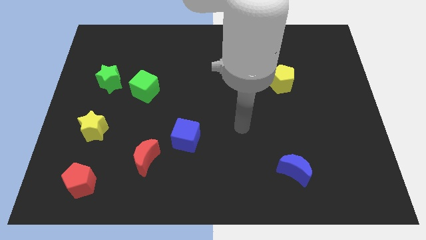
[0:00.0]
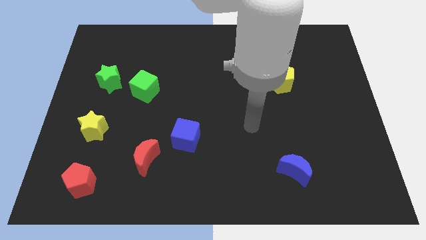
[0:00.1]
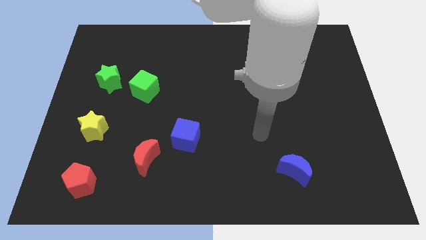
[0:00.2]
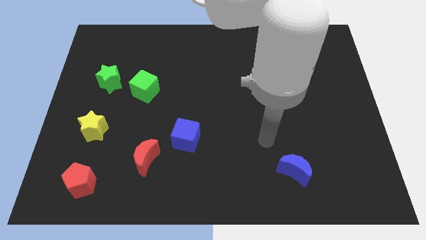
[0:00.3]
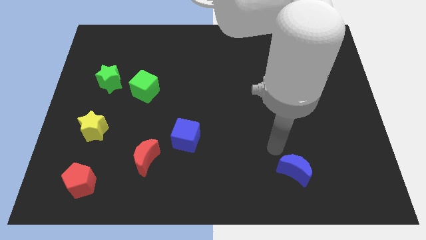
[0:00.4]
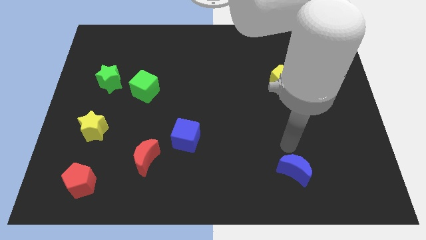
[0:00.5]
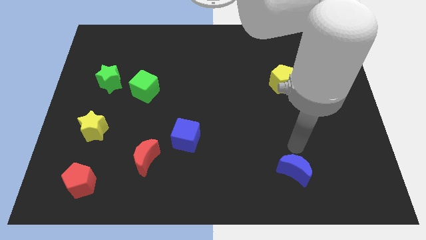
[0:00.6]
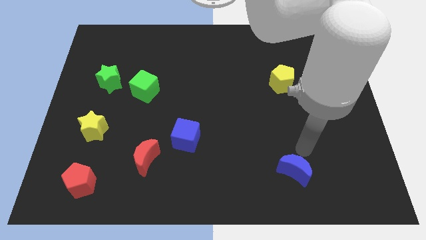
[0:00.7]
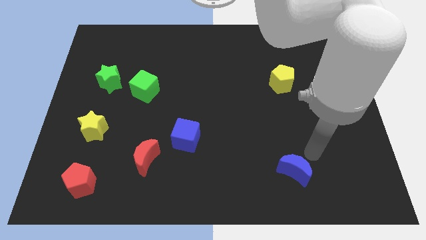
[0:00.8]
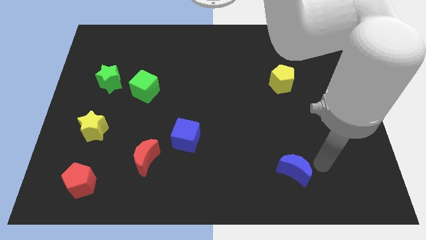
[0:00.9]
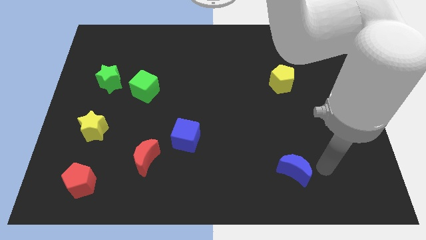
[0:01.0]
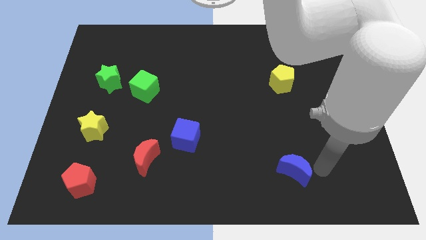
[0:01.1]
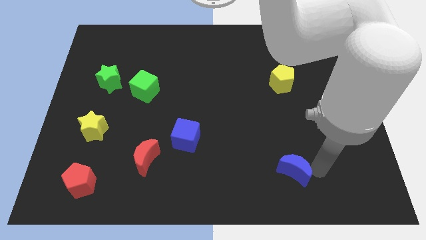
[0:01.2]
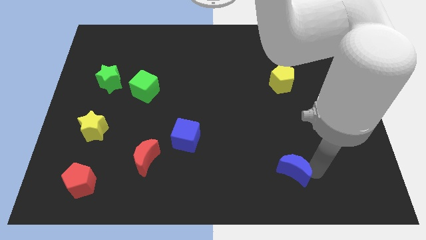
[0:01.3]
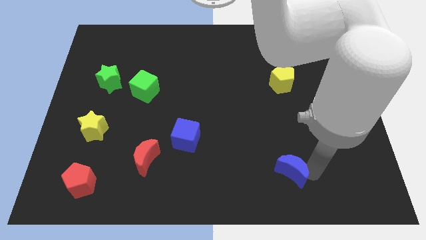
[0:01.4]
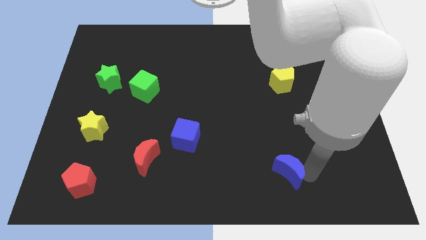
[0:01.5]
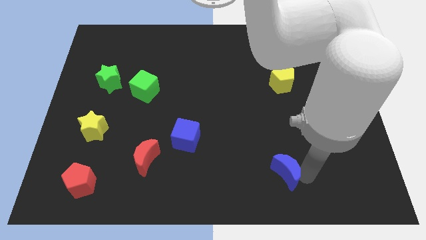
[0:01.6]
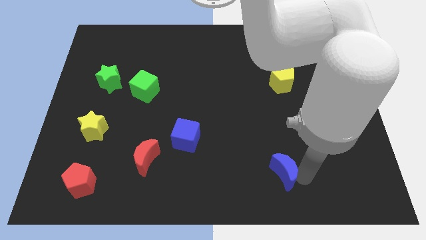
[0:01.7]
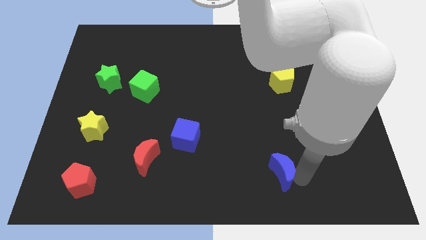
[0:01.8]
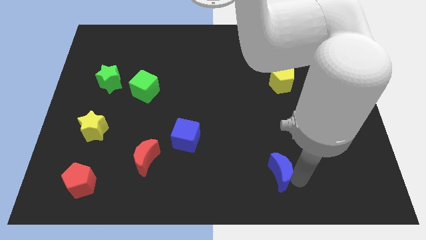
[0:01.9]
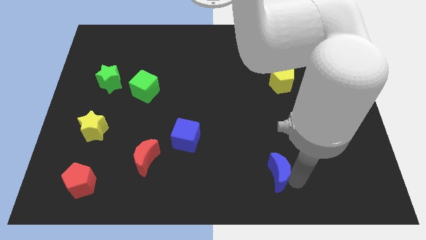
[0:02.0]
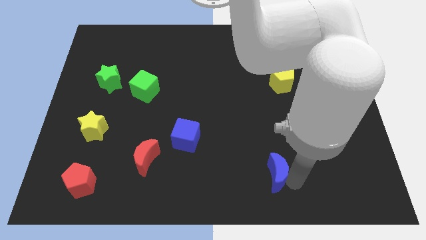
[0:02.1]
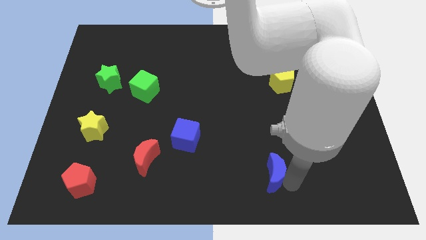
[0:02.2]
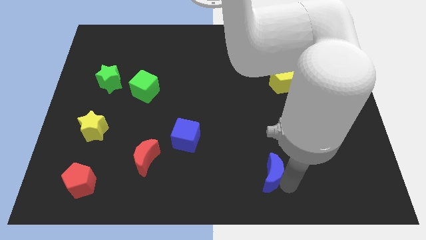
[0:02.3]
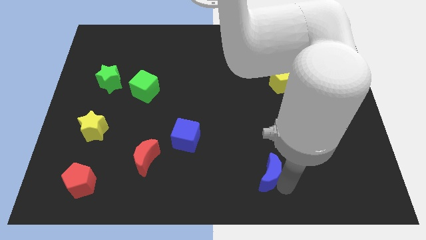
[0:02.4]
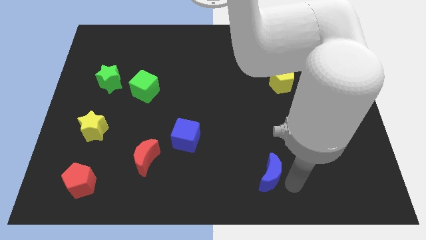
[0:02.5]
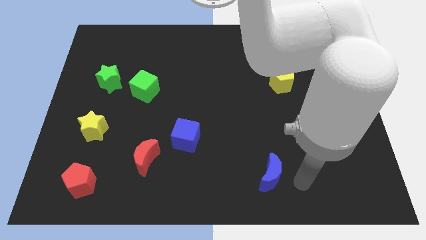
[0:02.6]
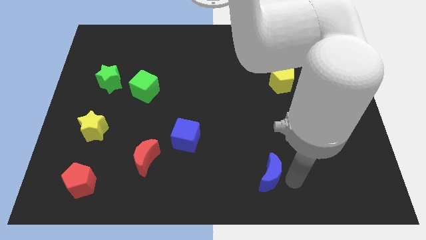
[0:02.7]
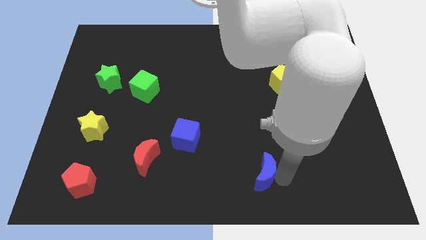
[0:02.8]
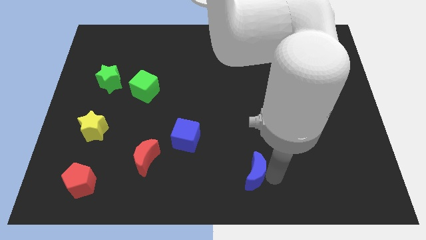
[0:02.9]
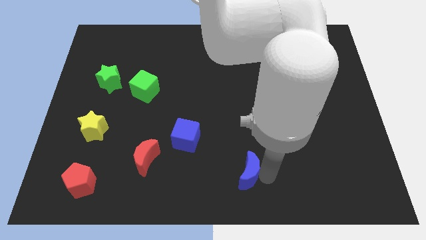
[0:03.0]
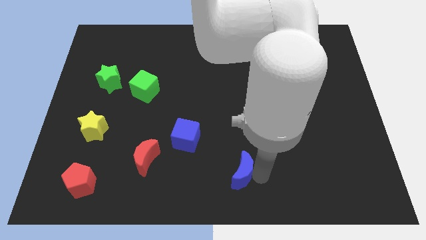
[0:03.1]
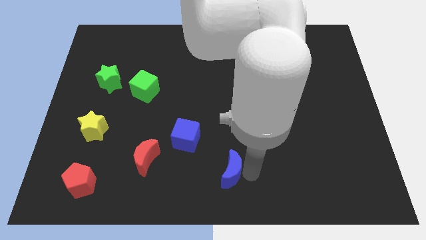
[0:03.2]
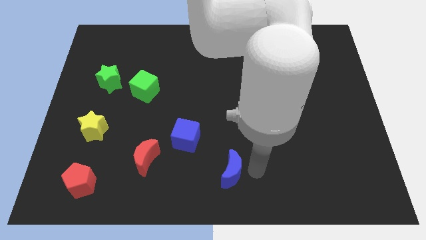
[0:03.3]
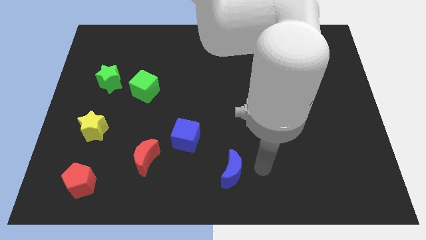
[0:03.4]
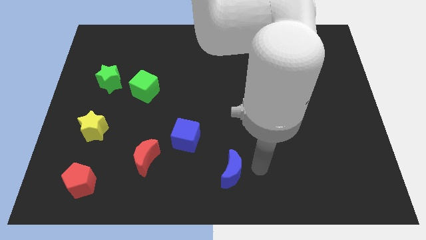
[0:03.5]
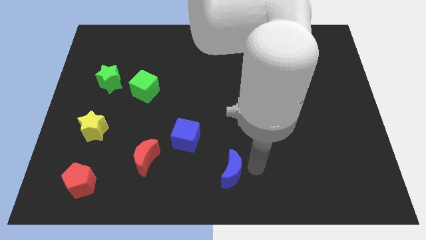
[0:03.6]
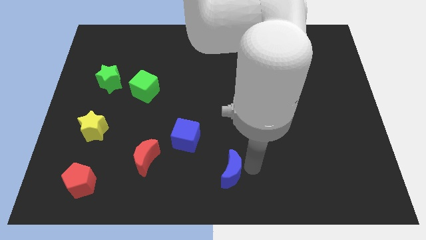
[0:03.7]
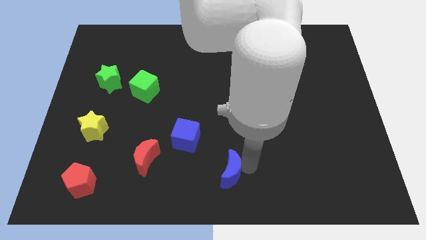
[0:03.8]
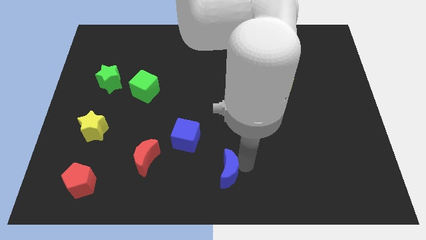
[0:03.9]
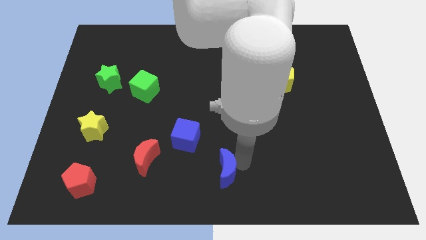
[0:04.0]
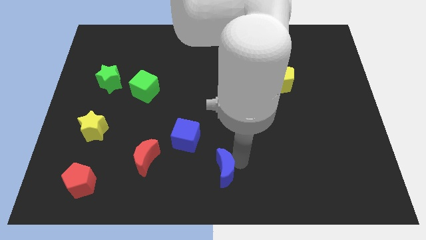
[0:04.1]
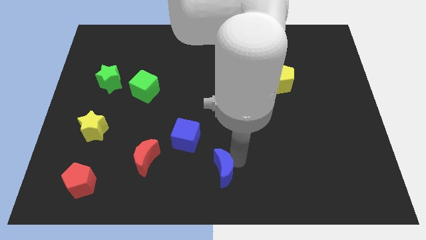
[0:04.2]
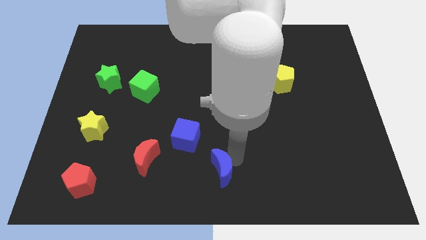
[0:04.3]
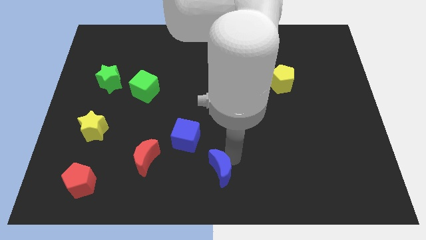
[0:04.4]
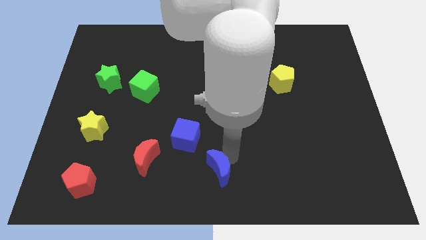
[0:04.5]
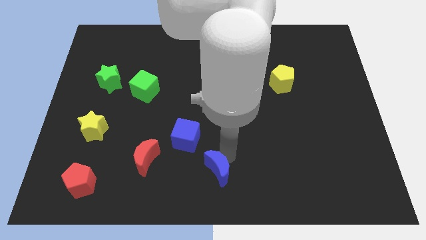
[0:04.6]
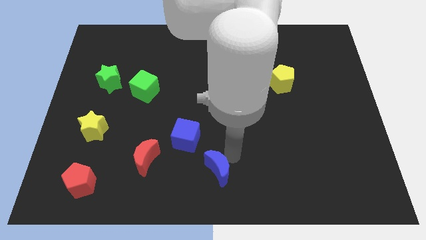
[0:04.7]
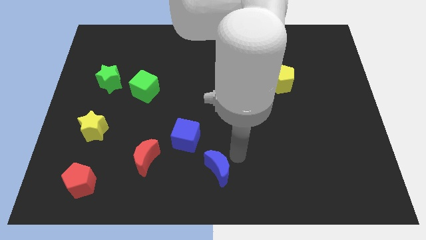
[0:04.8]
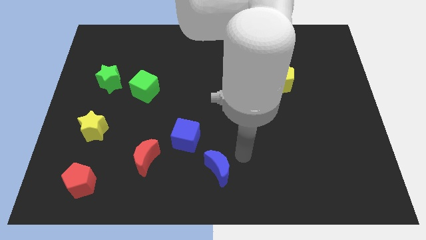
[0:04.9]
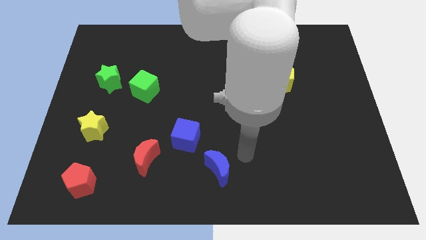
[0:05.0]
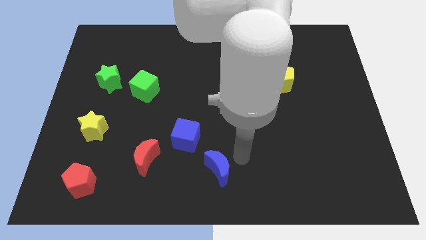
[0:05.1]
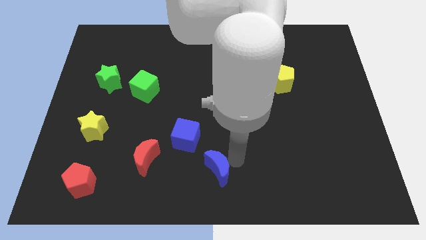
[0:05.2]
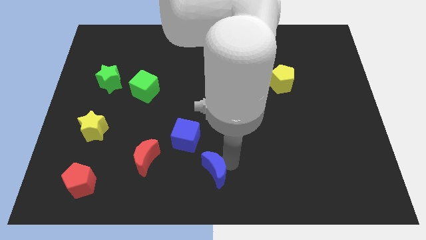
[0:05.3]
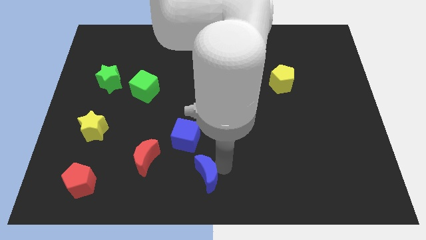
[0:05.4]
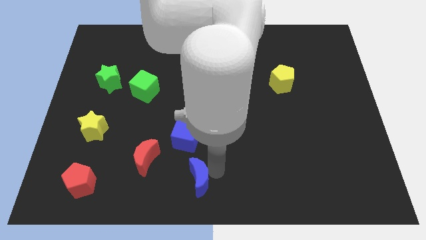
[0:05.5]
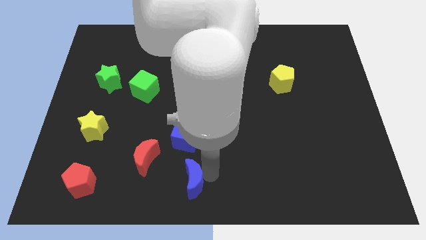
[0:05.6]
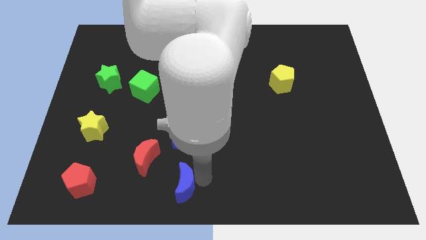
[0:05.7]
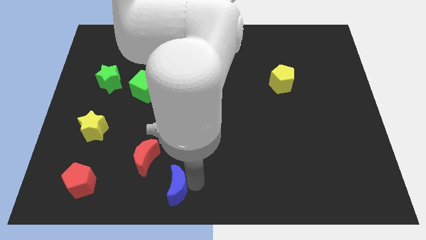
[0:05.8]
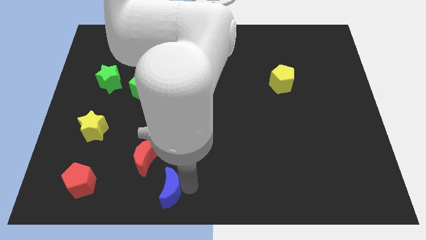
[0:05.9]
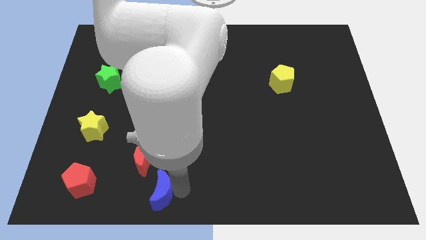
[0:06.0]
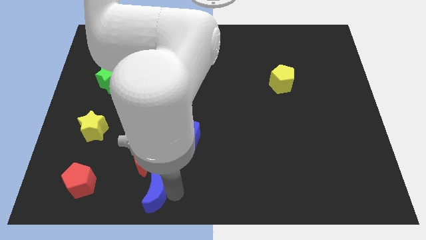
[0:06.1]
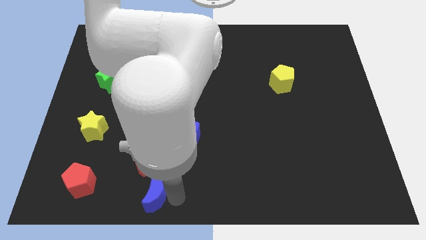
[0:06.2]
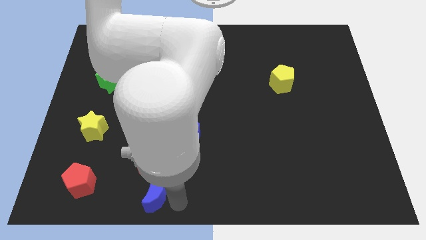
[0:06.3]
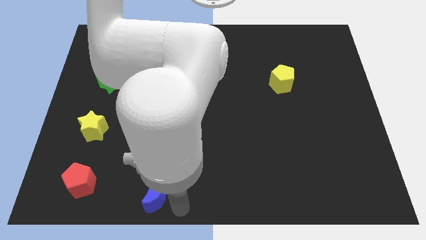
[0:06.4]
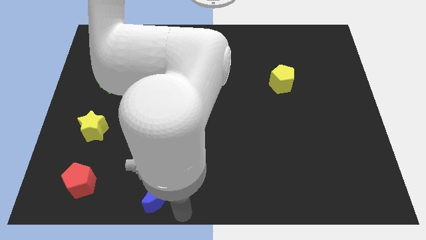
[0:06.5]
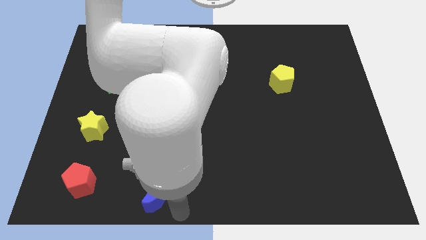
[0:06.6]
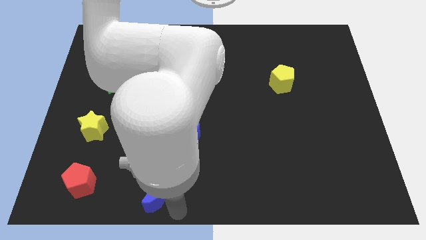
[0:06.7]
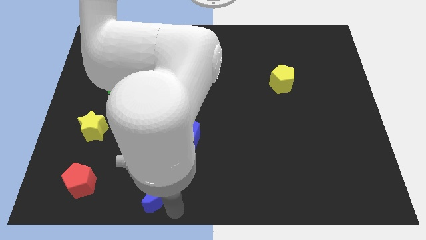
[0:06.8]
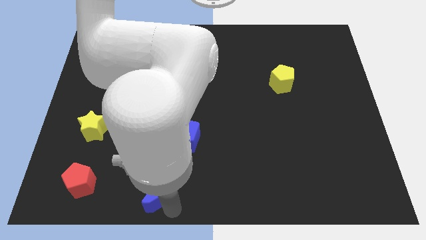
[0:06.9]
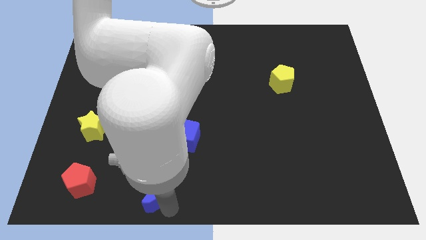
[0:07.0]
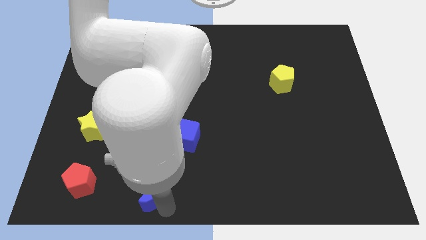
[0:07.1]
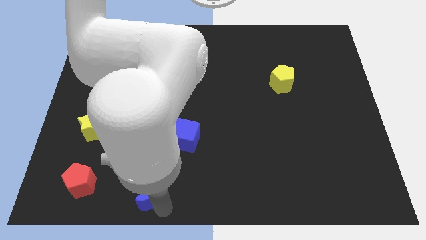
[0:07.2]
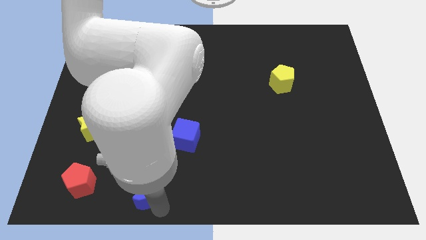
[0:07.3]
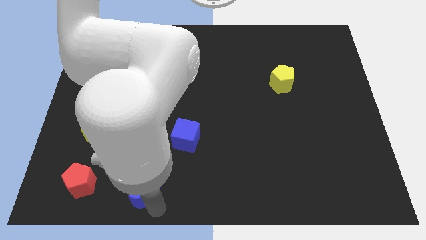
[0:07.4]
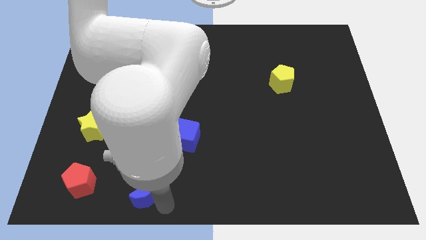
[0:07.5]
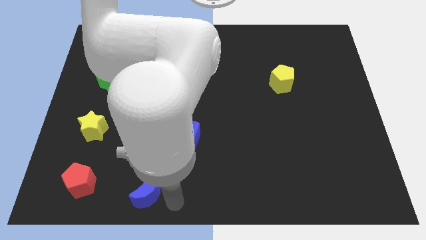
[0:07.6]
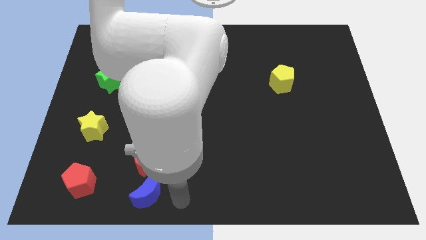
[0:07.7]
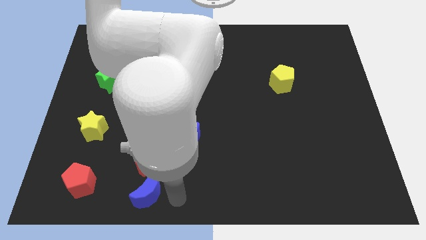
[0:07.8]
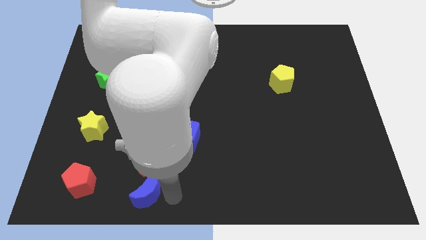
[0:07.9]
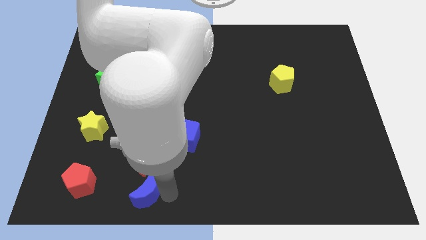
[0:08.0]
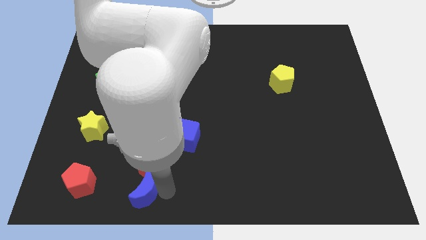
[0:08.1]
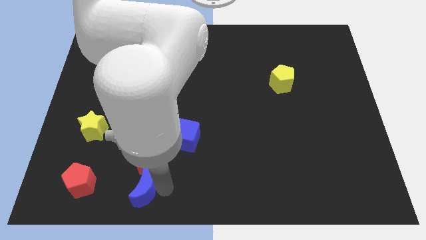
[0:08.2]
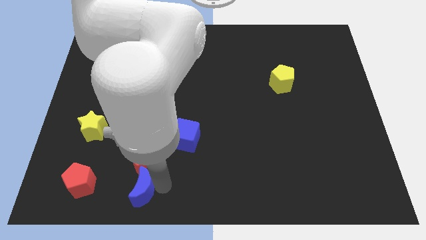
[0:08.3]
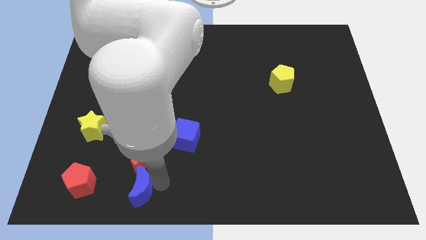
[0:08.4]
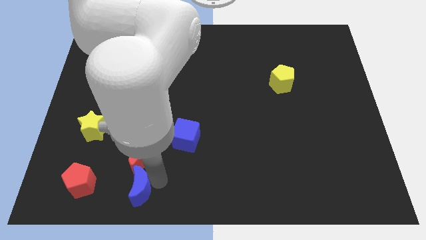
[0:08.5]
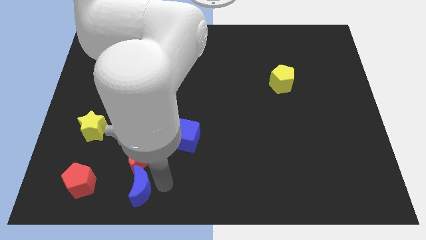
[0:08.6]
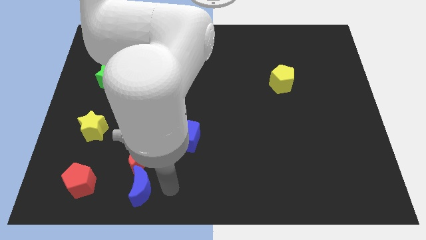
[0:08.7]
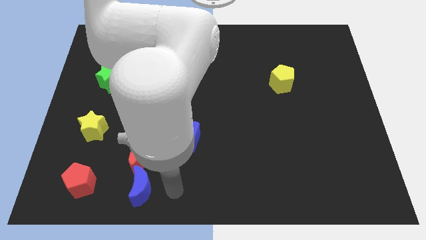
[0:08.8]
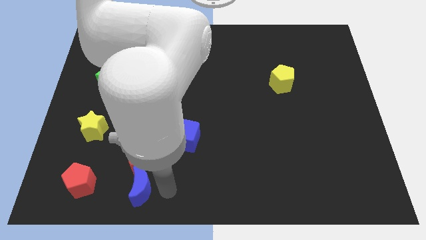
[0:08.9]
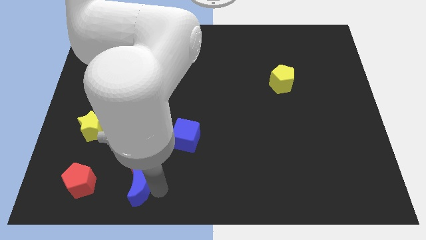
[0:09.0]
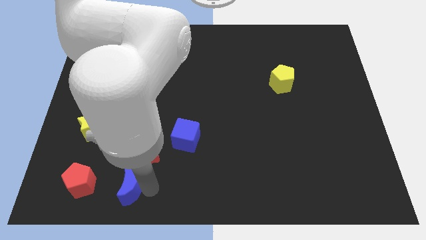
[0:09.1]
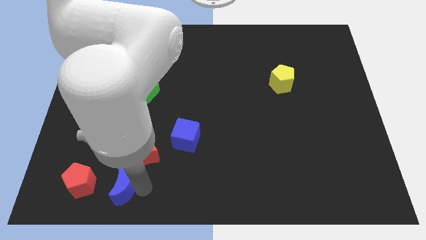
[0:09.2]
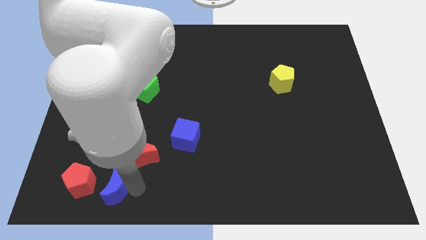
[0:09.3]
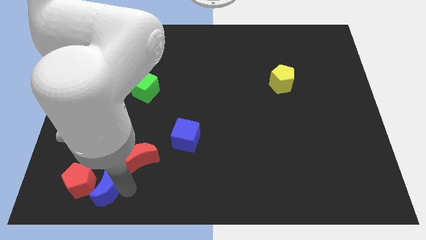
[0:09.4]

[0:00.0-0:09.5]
push the blue moon towards the red pentagon
